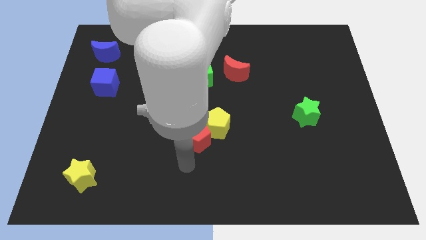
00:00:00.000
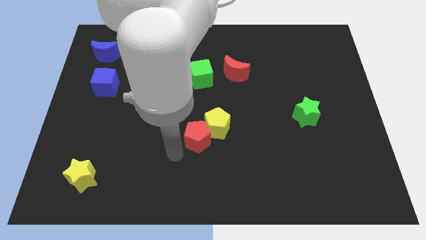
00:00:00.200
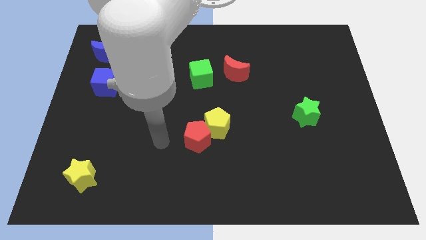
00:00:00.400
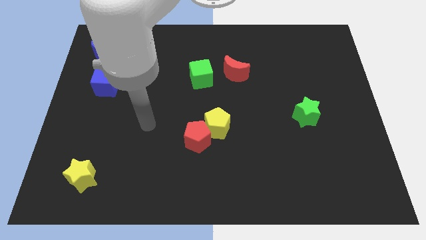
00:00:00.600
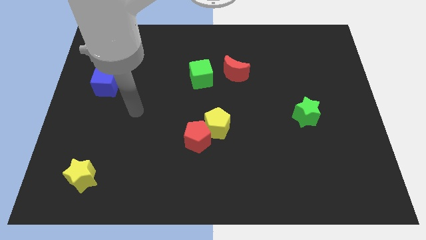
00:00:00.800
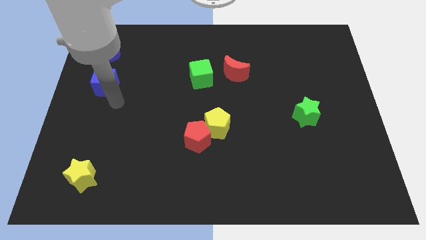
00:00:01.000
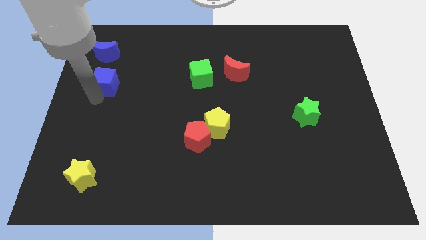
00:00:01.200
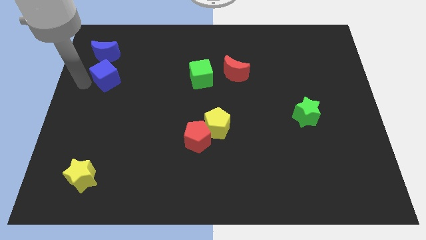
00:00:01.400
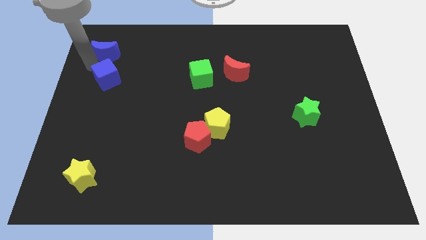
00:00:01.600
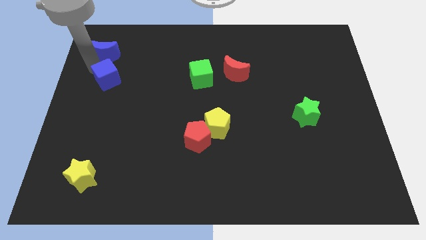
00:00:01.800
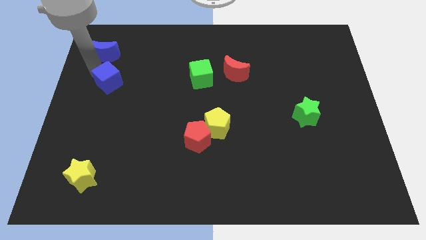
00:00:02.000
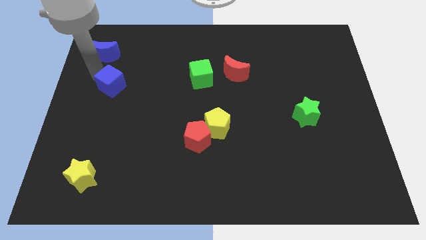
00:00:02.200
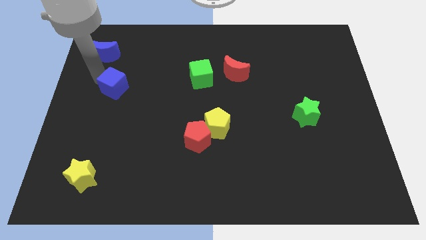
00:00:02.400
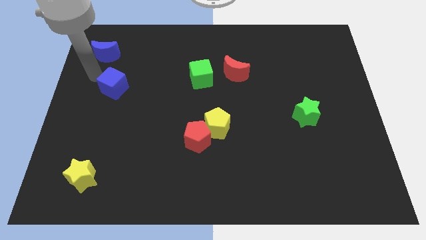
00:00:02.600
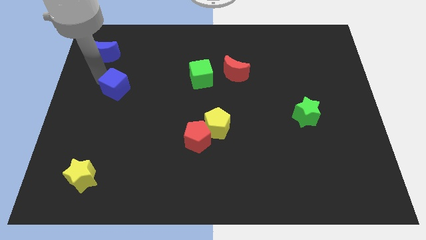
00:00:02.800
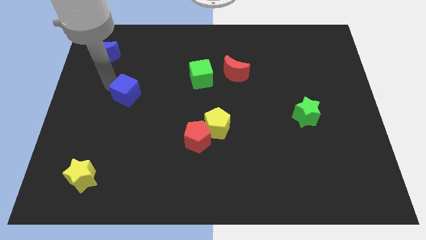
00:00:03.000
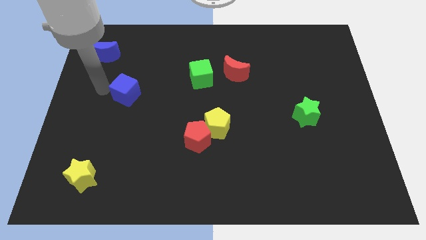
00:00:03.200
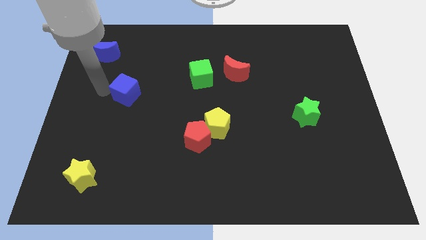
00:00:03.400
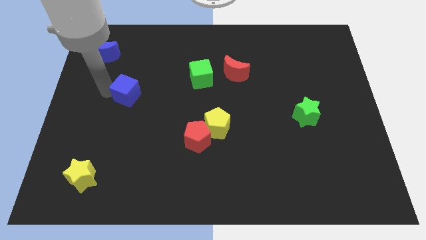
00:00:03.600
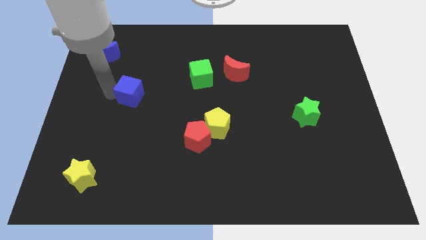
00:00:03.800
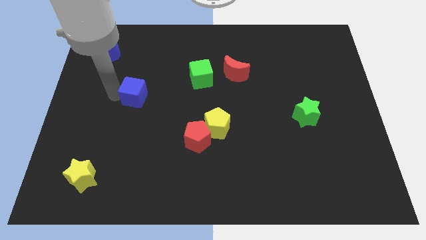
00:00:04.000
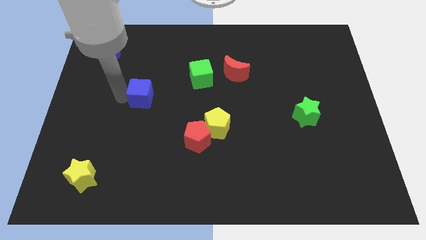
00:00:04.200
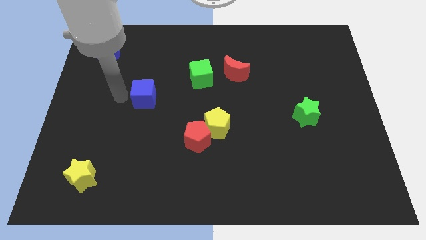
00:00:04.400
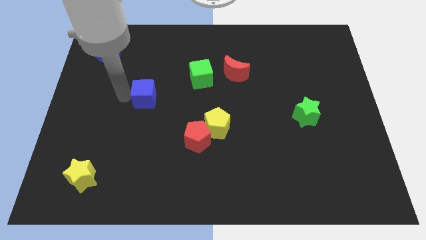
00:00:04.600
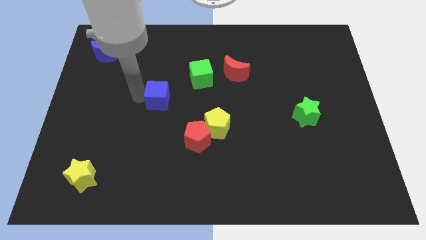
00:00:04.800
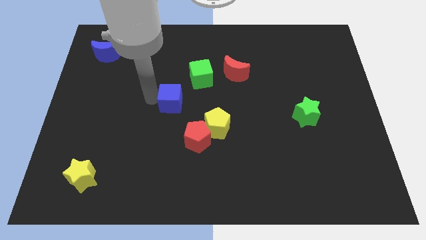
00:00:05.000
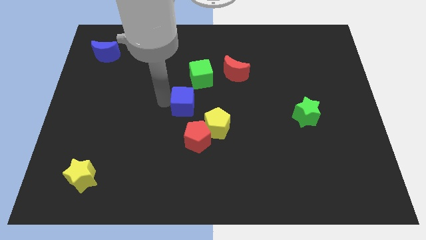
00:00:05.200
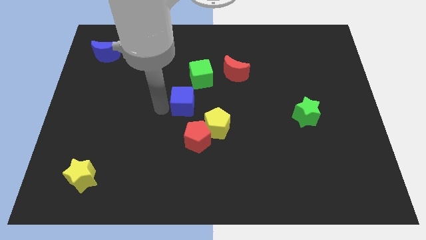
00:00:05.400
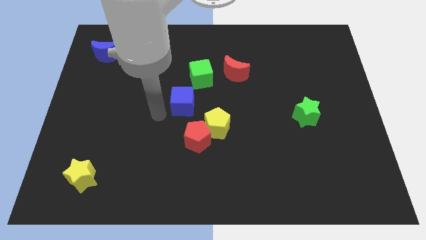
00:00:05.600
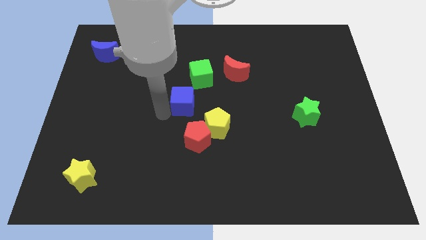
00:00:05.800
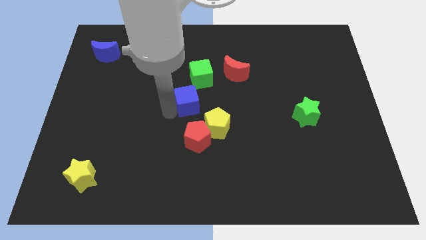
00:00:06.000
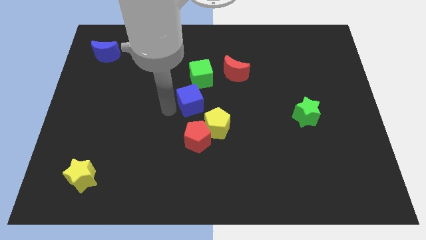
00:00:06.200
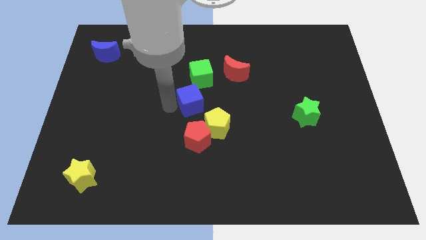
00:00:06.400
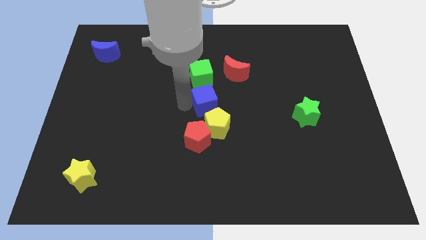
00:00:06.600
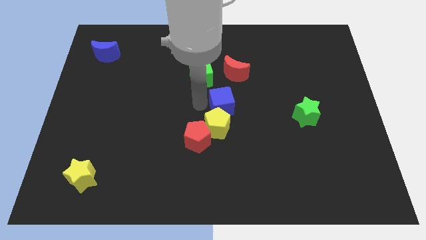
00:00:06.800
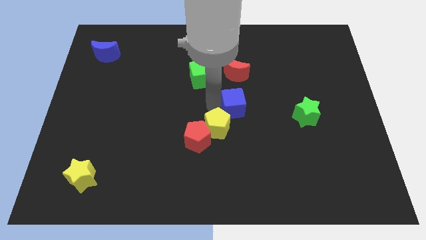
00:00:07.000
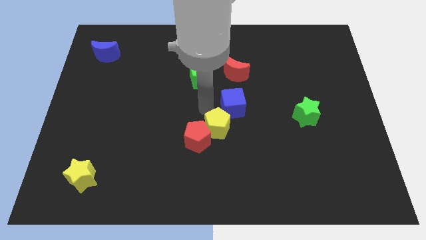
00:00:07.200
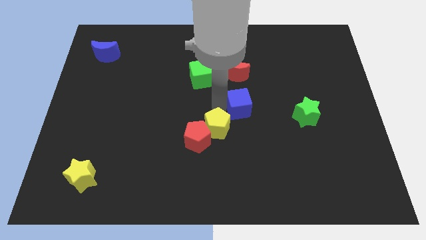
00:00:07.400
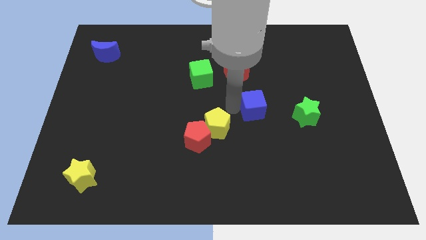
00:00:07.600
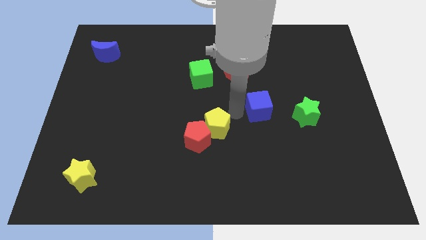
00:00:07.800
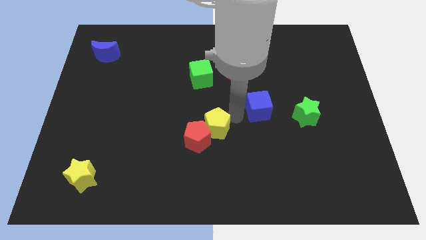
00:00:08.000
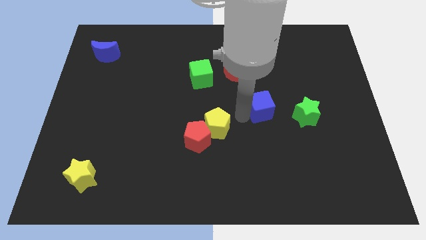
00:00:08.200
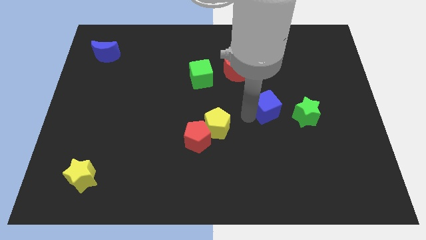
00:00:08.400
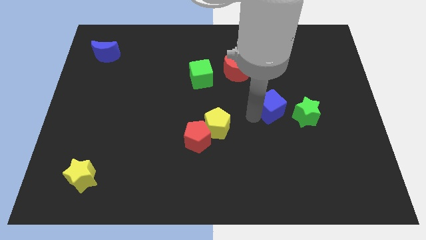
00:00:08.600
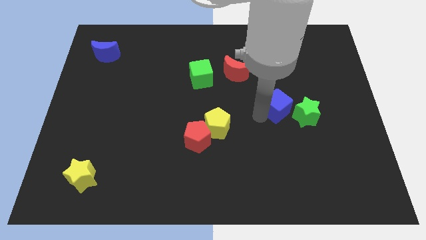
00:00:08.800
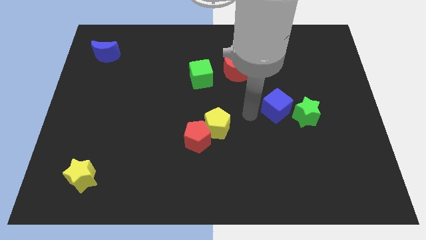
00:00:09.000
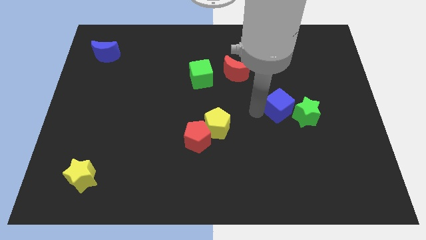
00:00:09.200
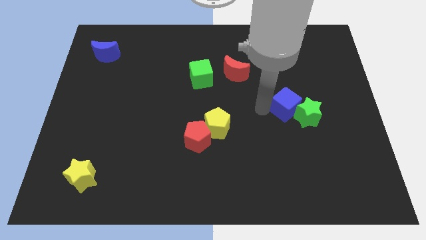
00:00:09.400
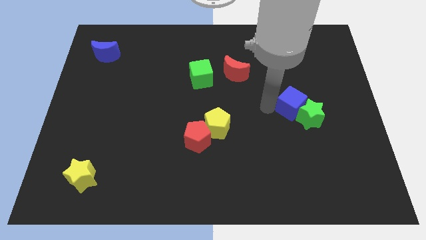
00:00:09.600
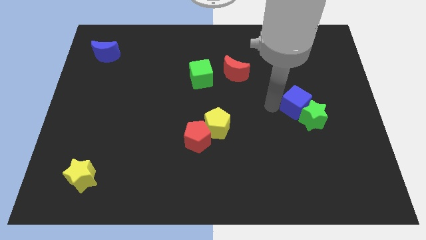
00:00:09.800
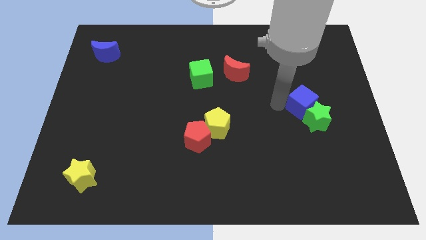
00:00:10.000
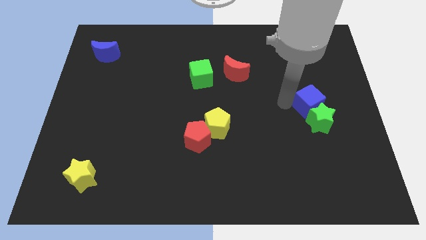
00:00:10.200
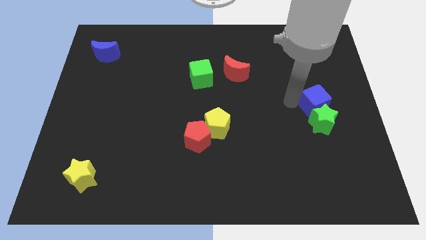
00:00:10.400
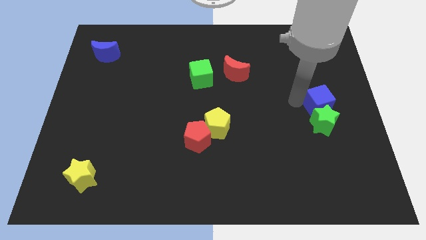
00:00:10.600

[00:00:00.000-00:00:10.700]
put the blue cube to the right side of the board
